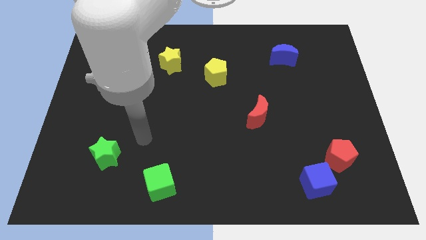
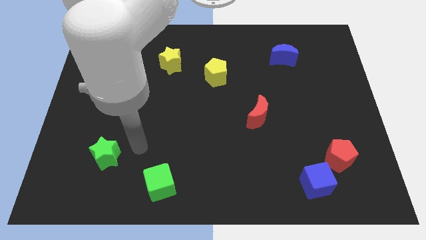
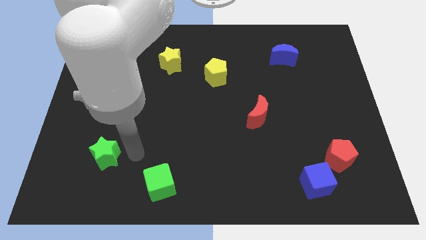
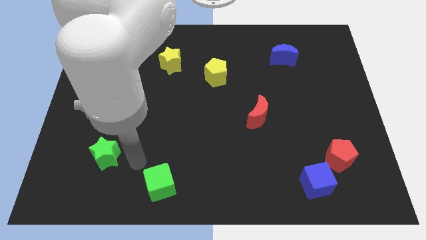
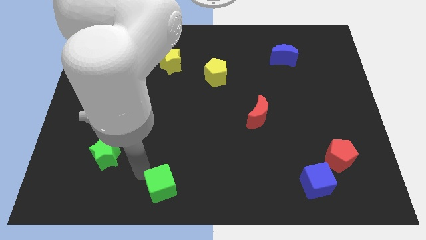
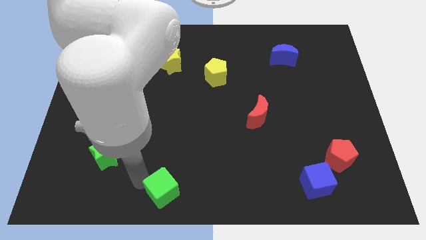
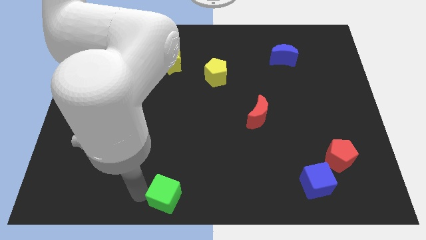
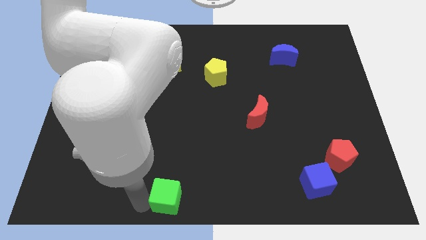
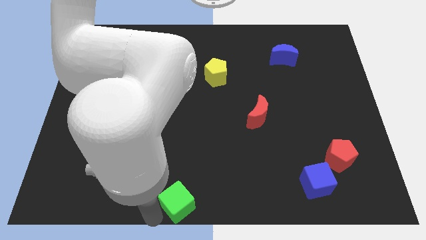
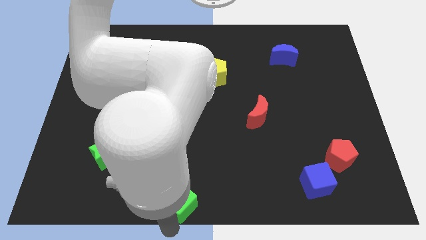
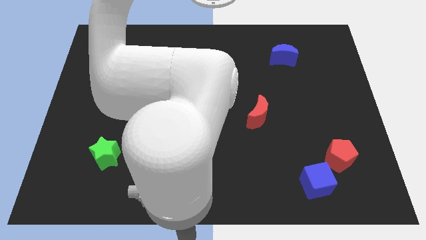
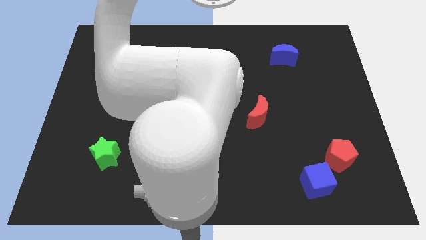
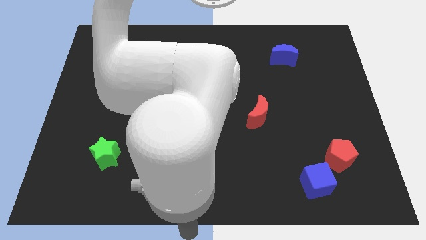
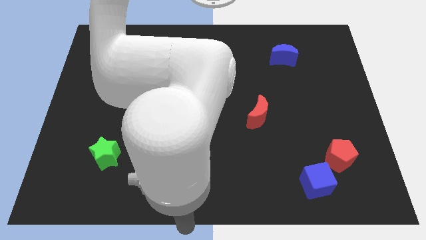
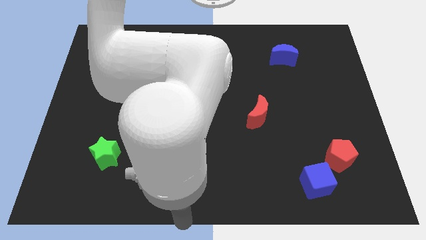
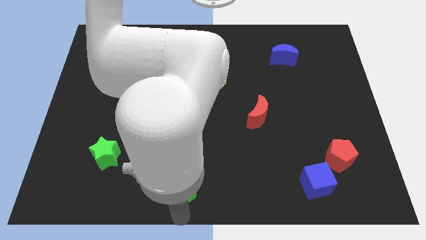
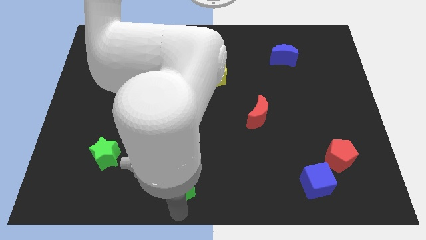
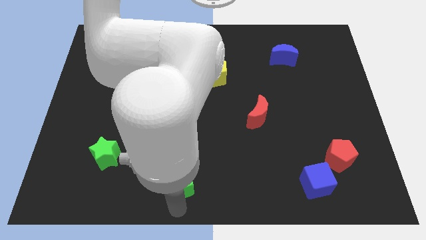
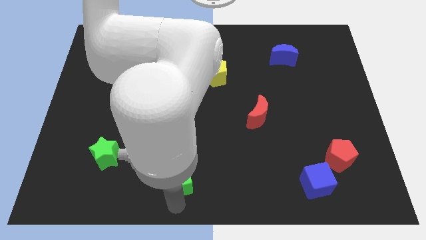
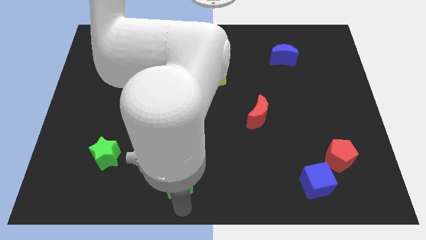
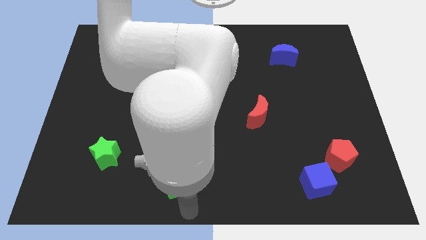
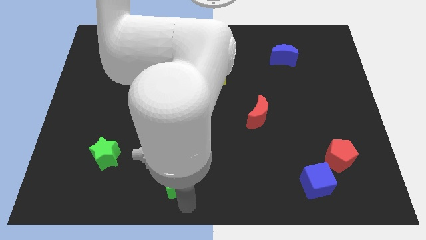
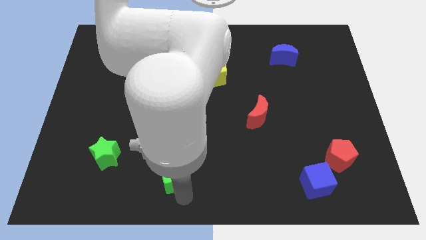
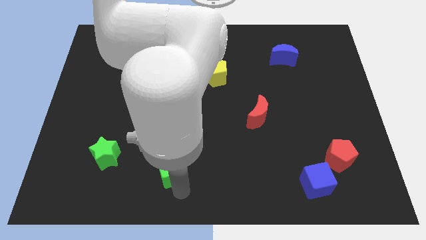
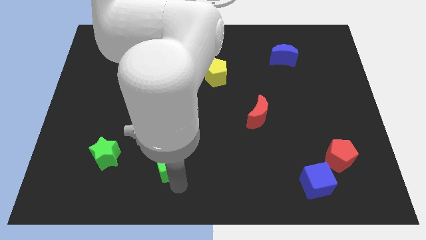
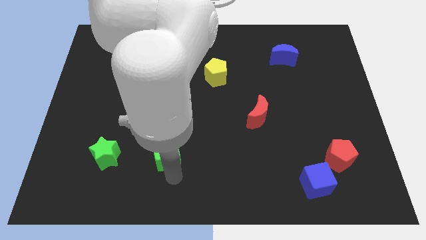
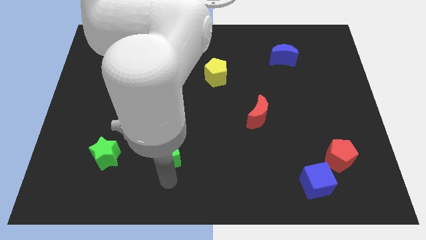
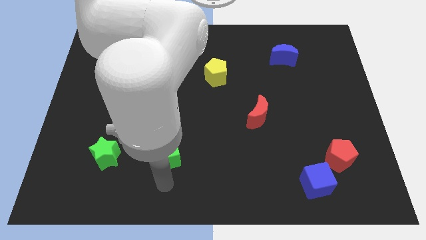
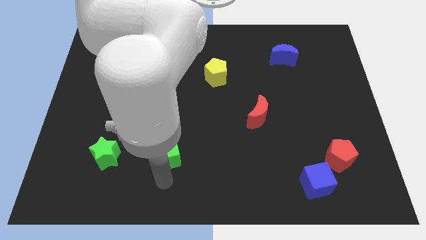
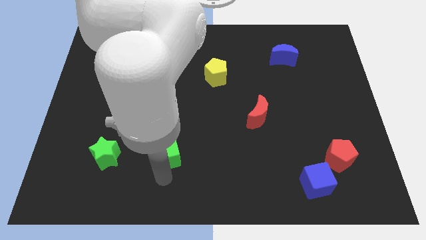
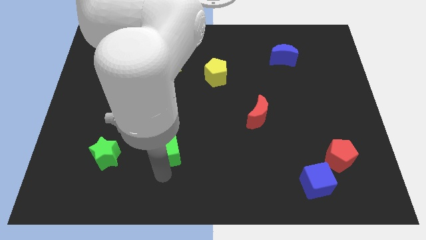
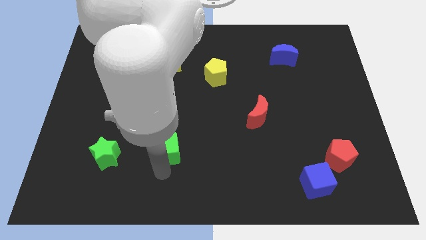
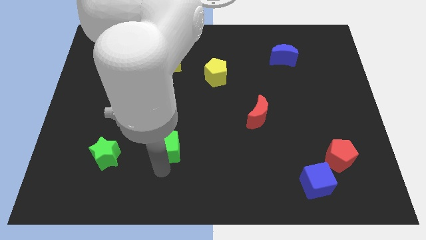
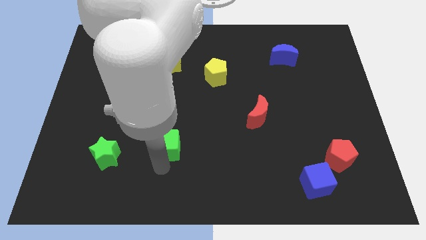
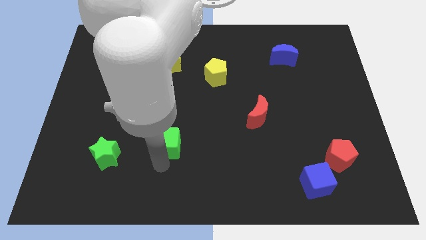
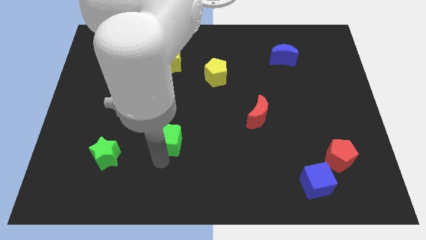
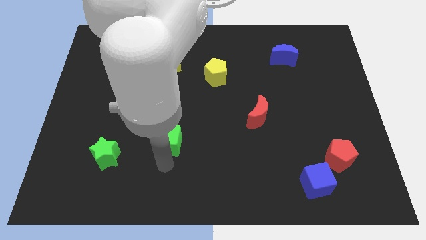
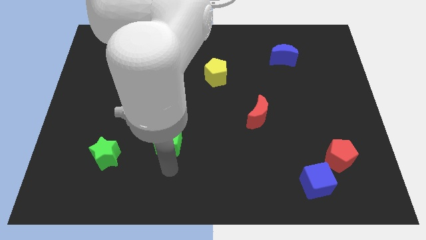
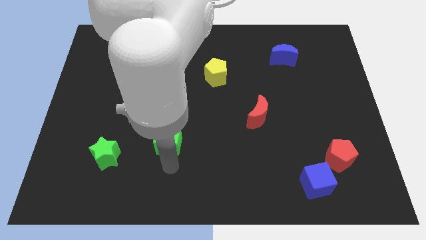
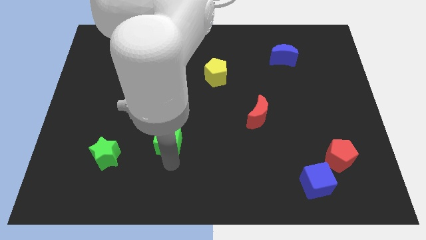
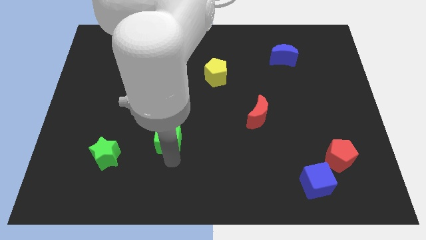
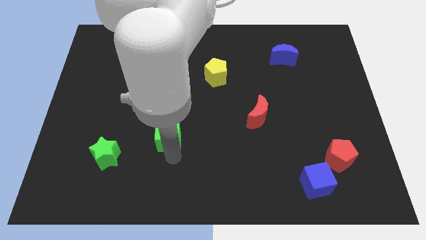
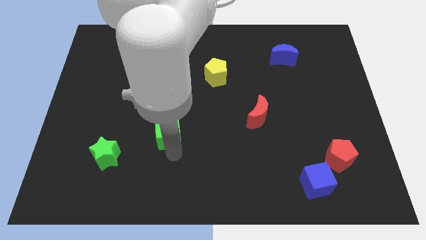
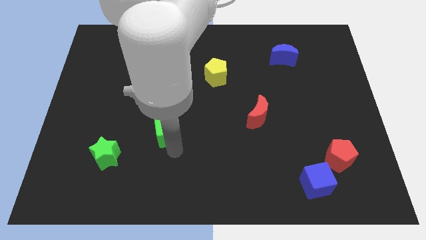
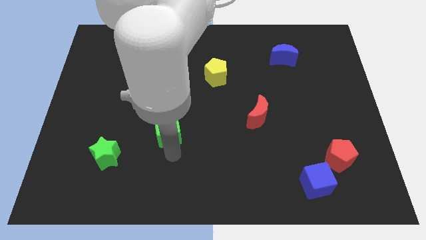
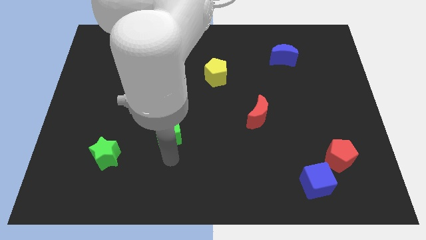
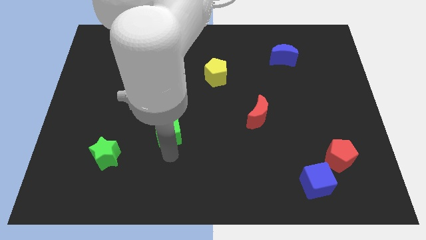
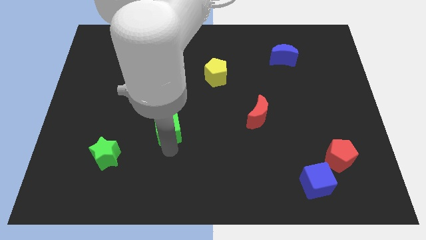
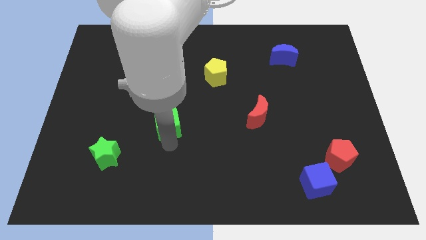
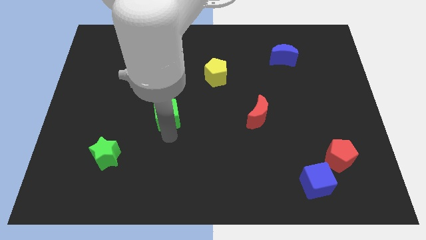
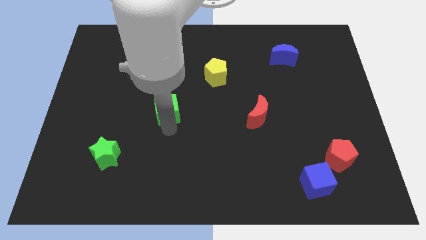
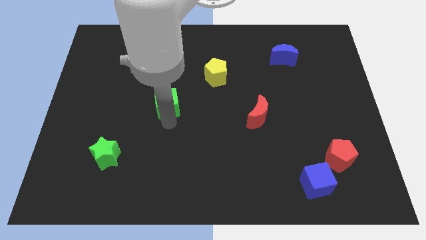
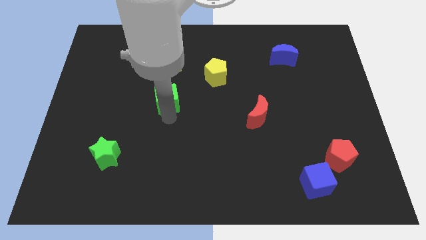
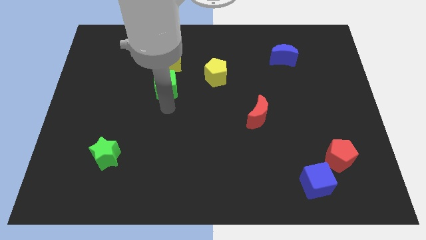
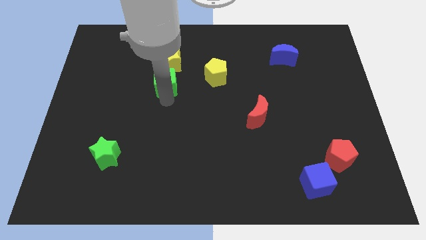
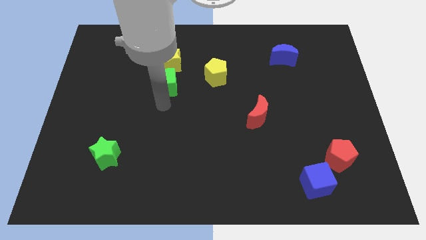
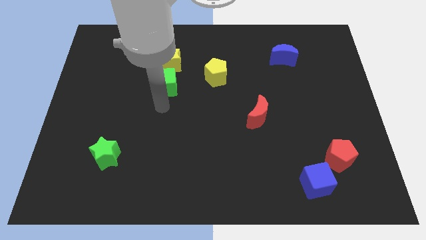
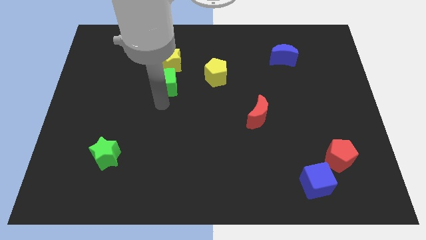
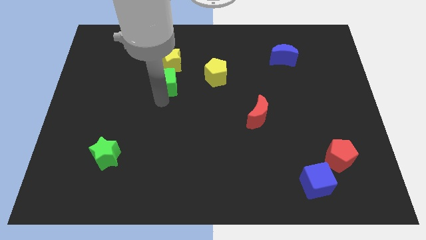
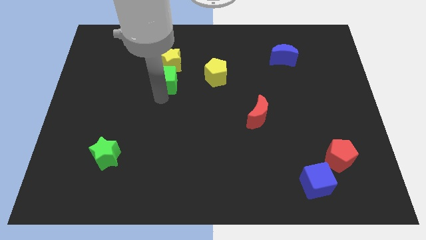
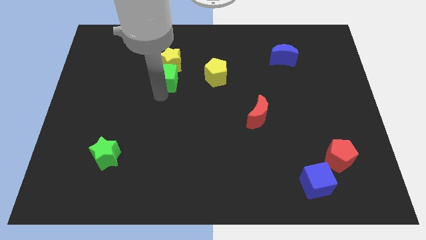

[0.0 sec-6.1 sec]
push the green cube next to the yellow star

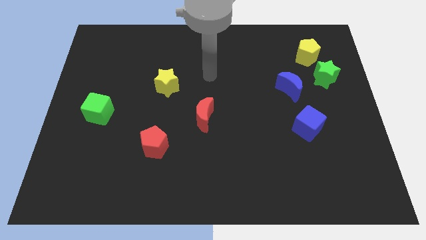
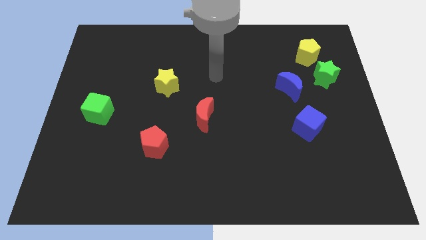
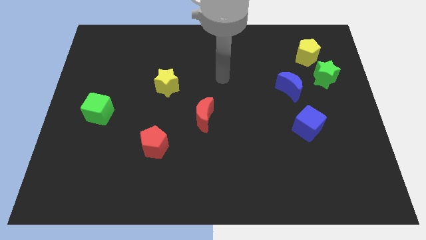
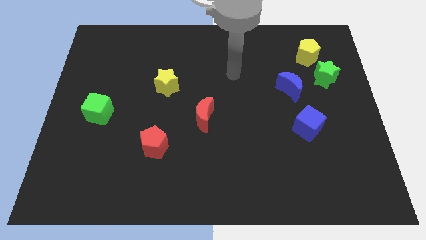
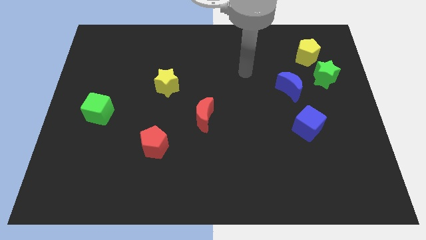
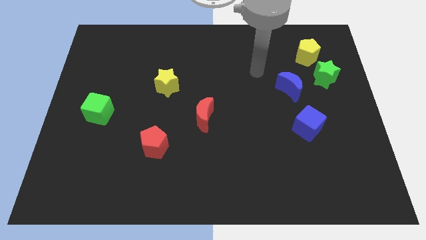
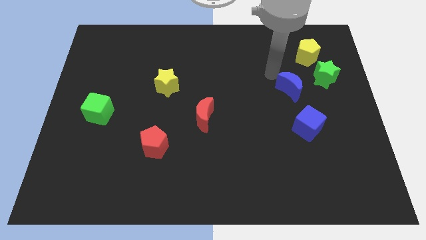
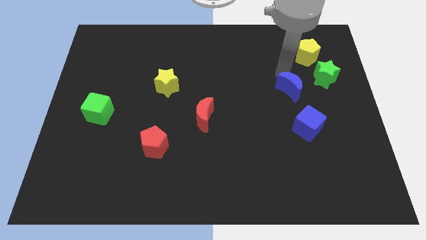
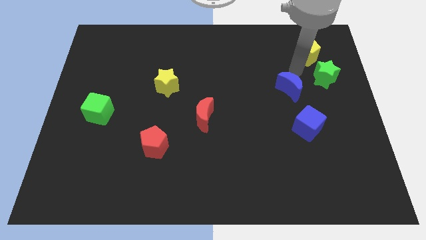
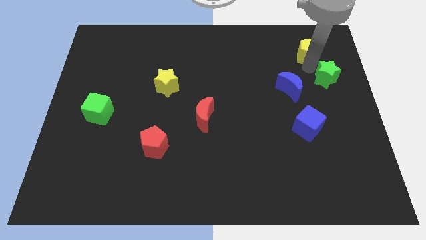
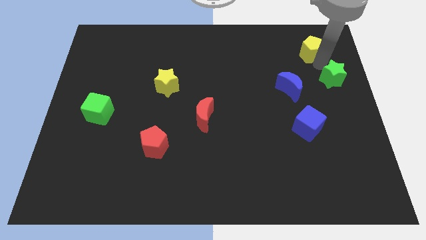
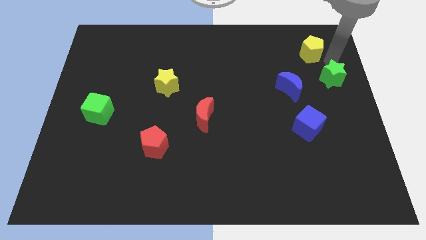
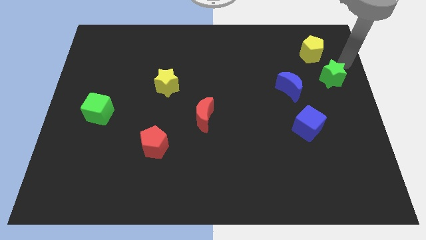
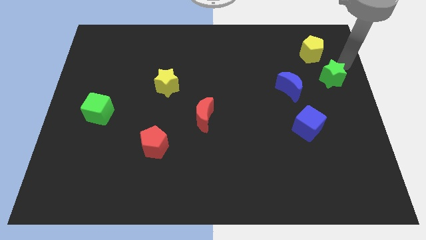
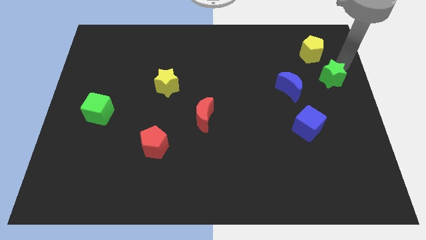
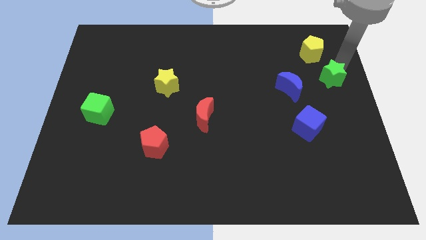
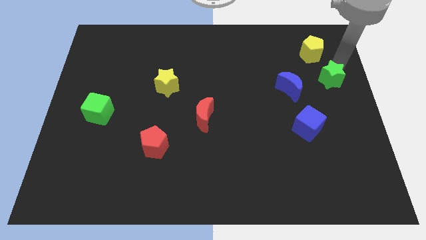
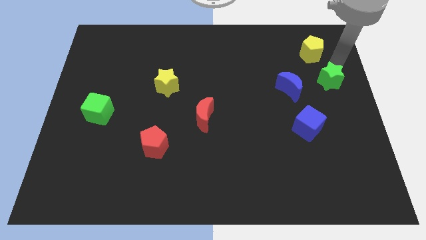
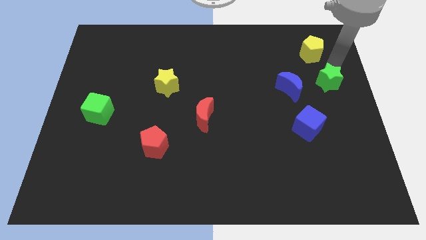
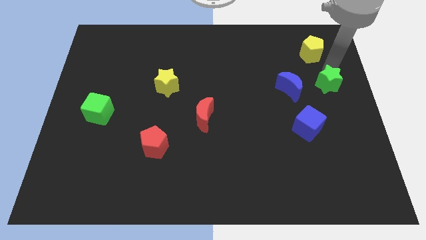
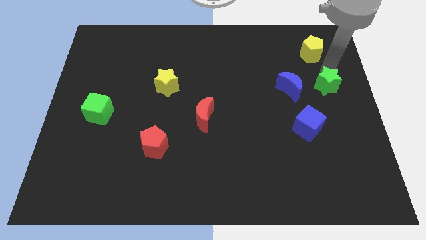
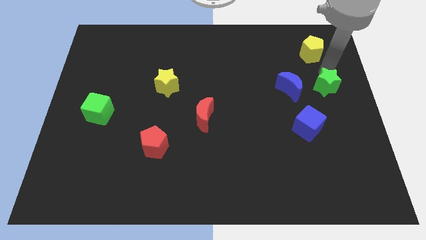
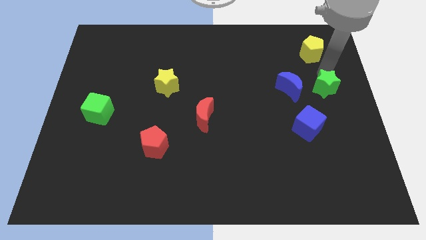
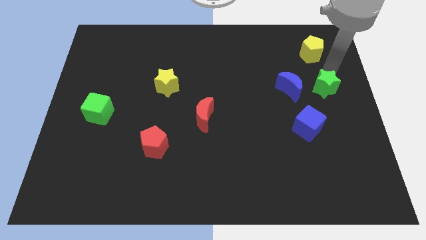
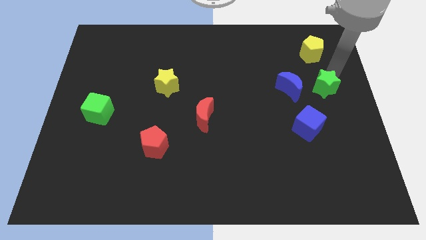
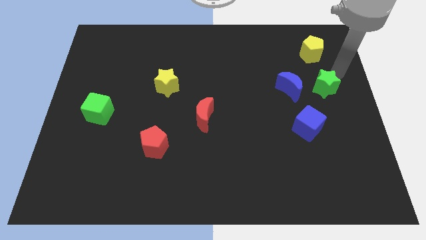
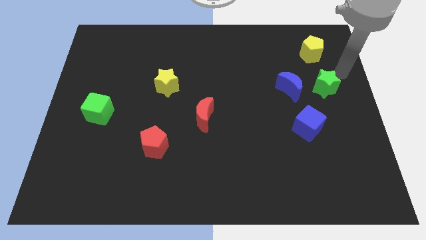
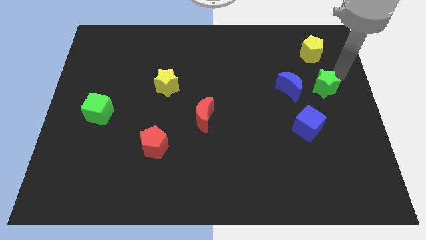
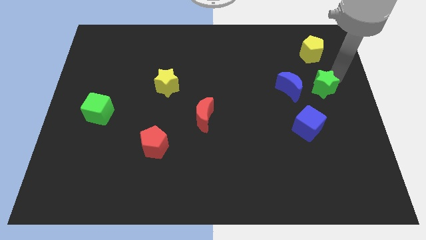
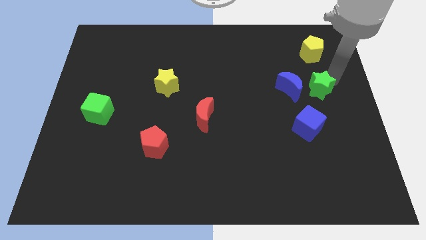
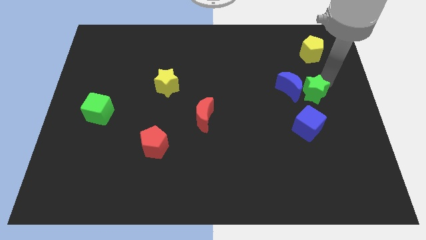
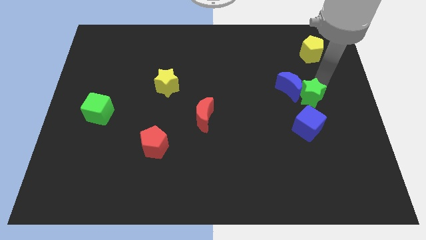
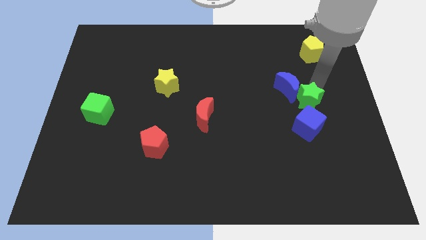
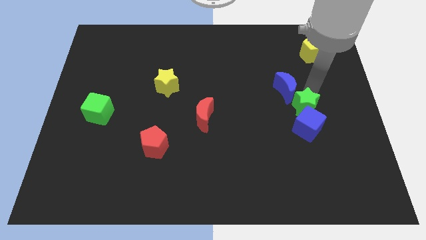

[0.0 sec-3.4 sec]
push the green star towards the blue cube
